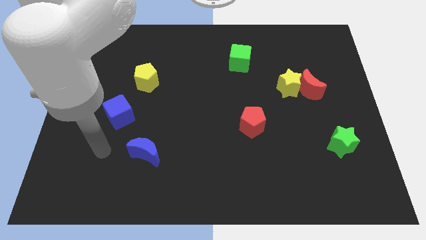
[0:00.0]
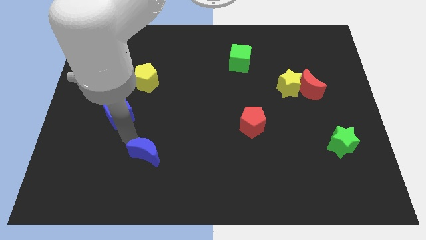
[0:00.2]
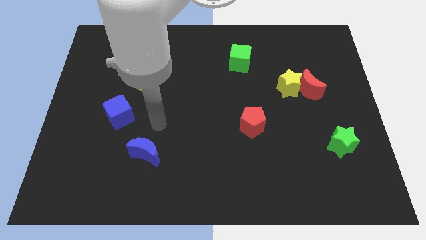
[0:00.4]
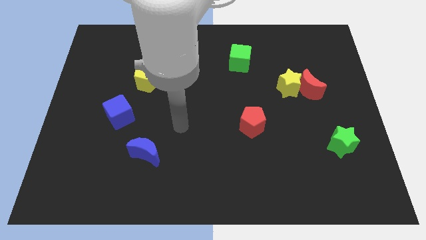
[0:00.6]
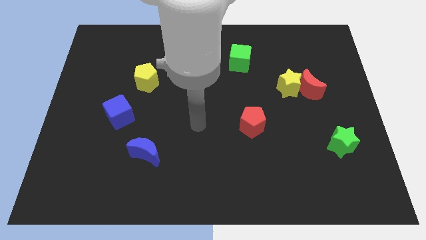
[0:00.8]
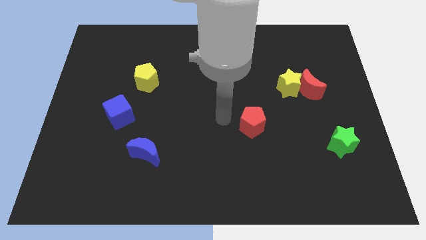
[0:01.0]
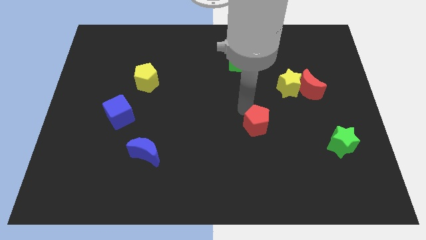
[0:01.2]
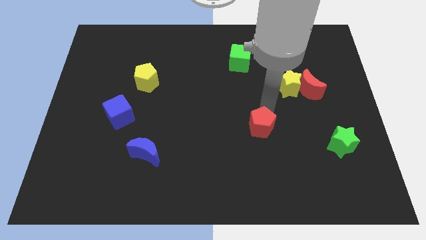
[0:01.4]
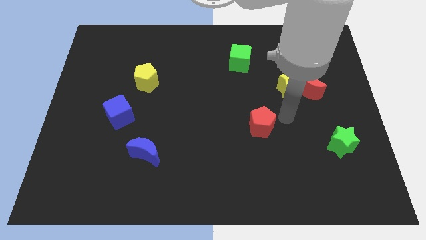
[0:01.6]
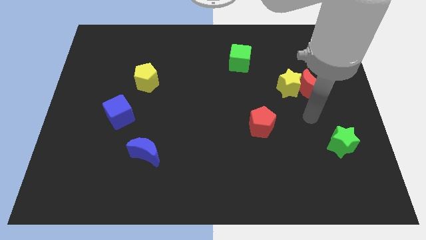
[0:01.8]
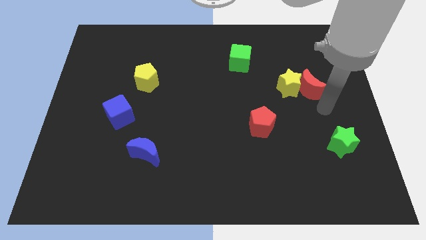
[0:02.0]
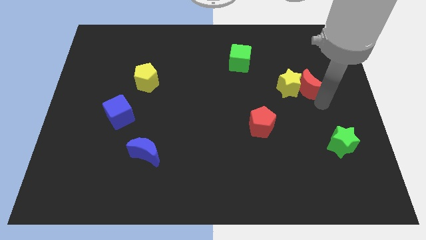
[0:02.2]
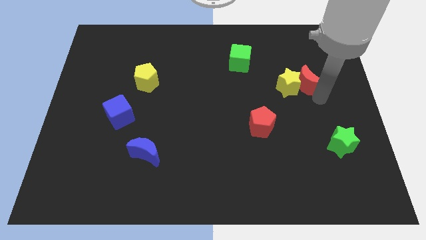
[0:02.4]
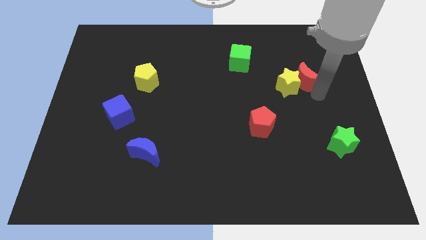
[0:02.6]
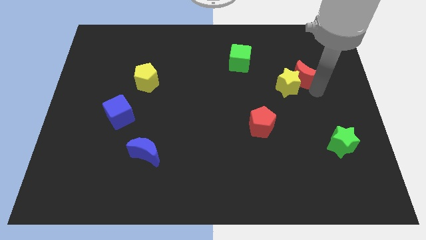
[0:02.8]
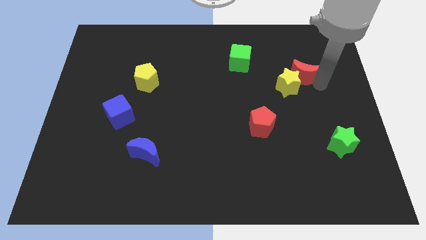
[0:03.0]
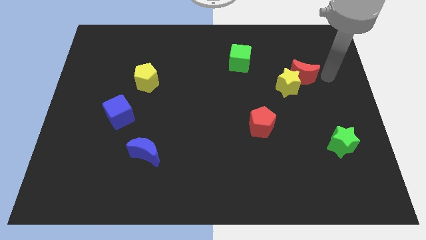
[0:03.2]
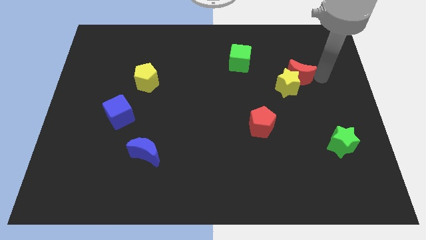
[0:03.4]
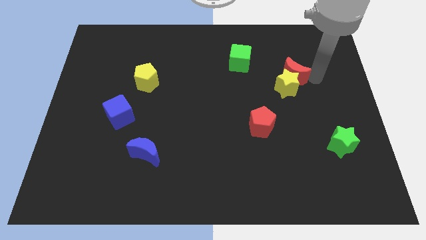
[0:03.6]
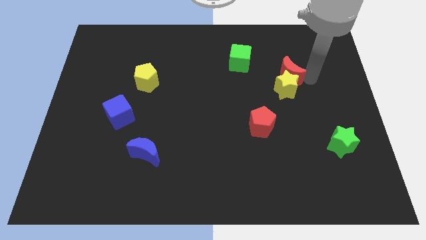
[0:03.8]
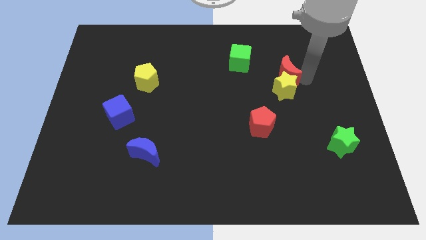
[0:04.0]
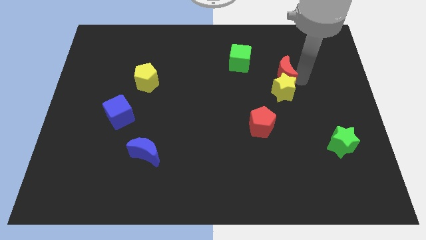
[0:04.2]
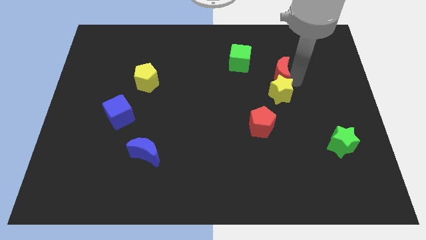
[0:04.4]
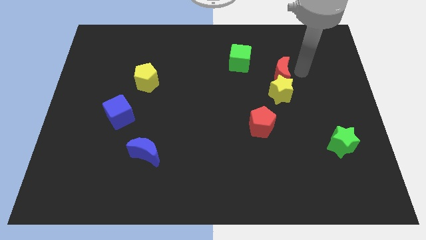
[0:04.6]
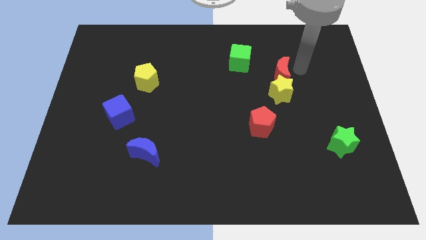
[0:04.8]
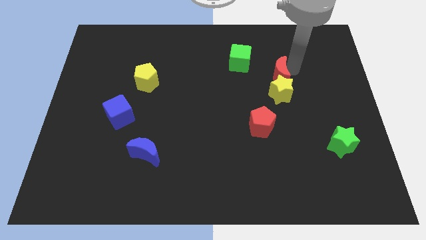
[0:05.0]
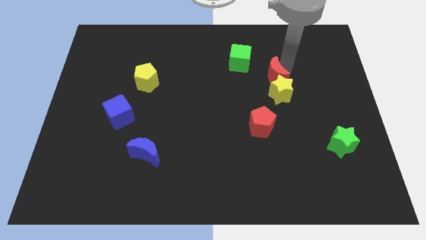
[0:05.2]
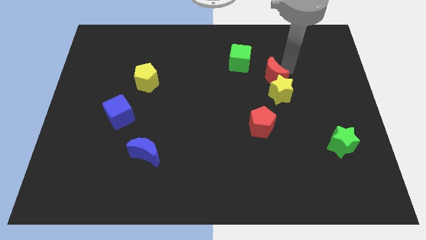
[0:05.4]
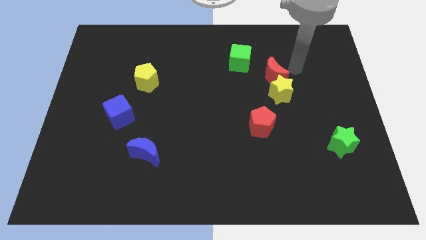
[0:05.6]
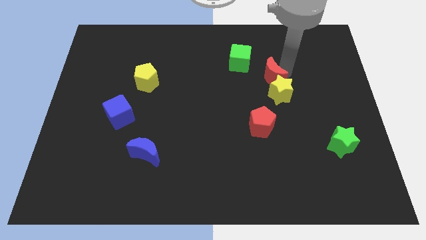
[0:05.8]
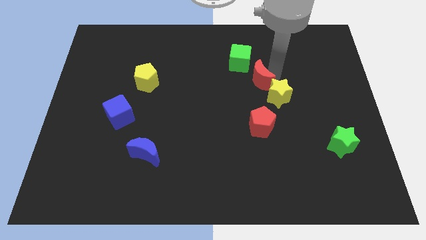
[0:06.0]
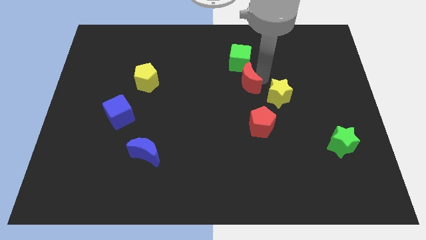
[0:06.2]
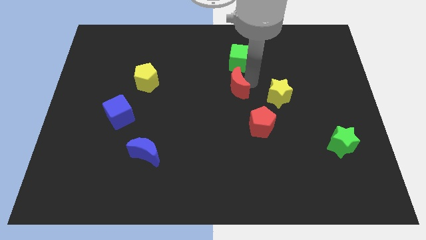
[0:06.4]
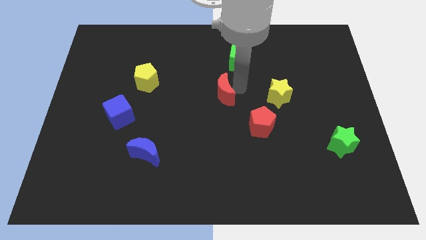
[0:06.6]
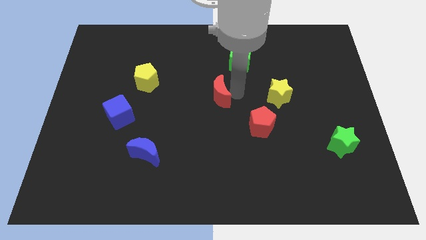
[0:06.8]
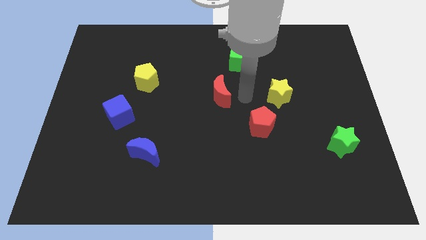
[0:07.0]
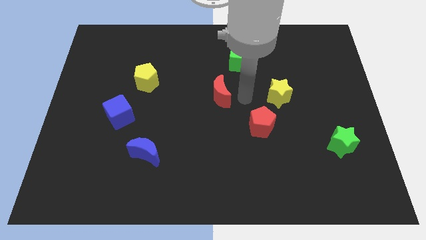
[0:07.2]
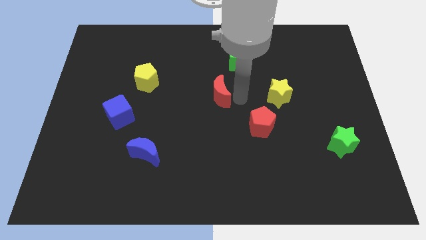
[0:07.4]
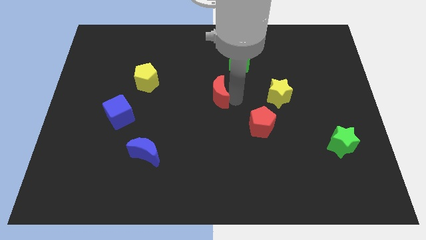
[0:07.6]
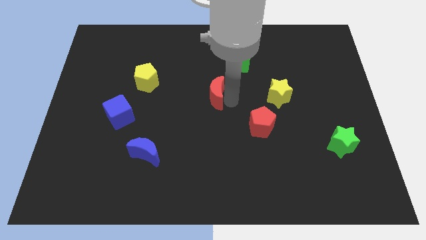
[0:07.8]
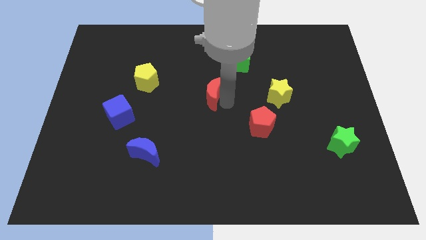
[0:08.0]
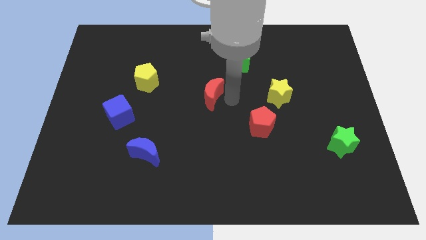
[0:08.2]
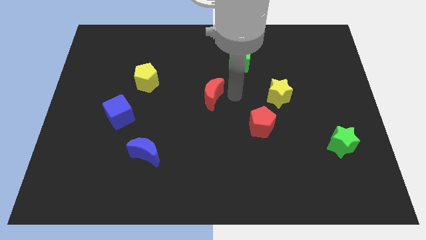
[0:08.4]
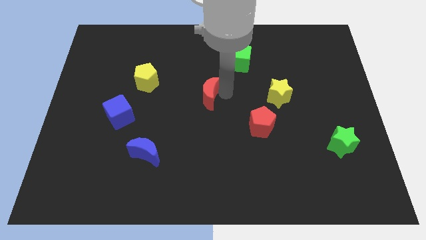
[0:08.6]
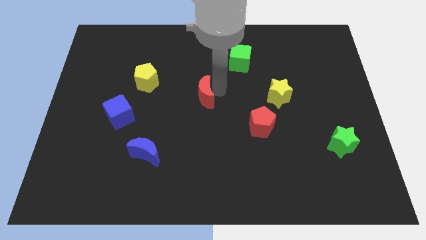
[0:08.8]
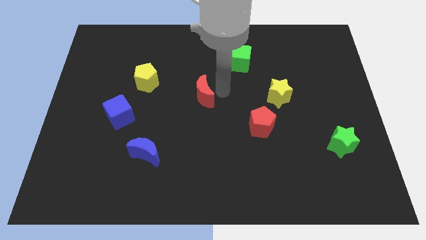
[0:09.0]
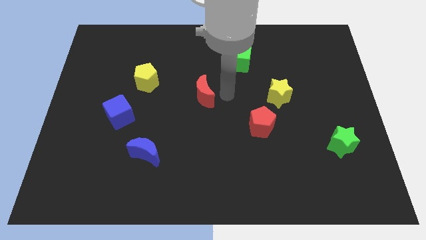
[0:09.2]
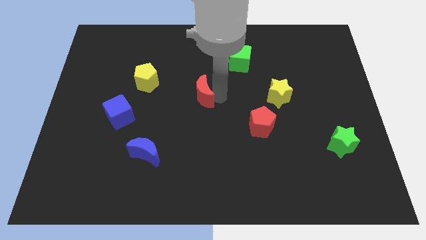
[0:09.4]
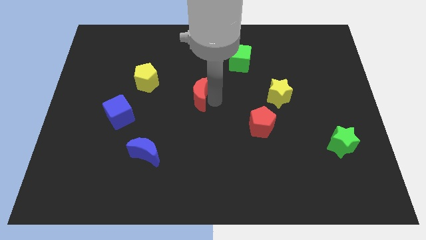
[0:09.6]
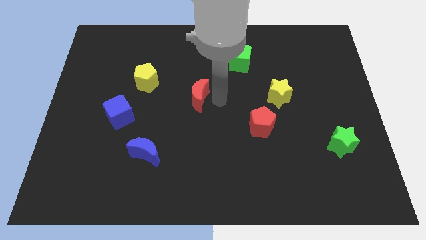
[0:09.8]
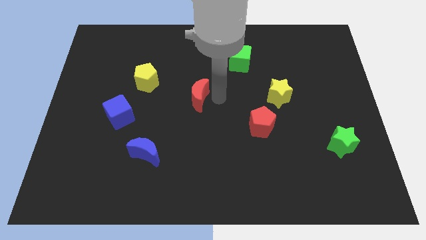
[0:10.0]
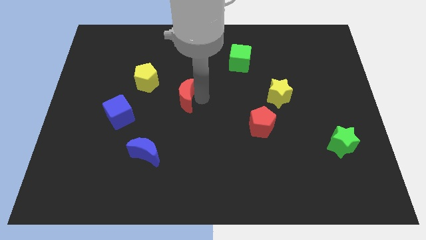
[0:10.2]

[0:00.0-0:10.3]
push the red moon diagonally down and to the right of the yellow pentagon

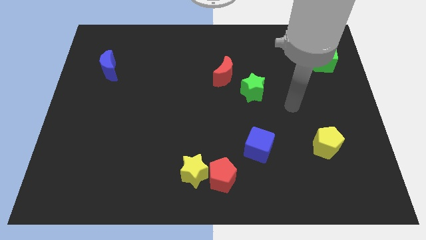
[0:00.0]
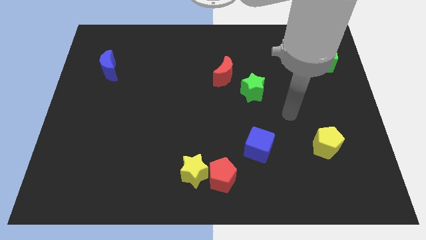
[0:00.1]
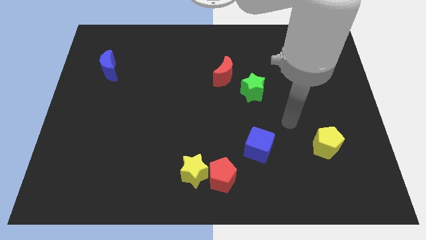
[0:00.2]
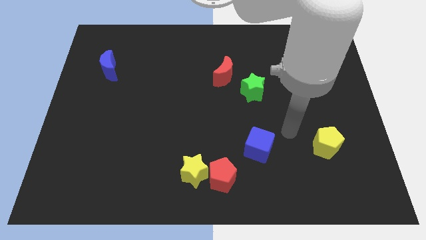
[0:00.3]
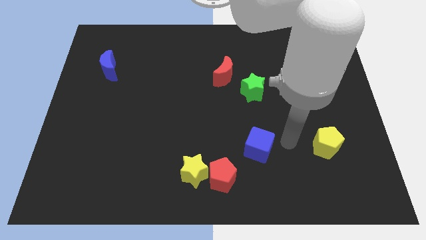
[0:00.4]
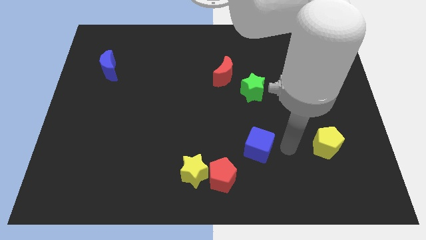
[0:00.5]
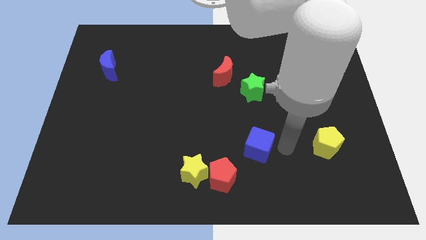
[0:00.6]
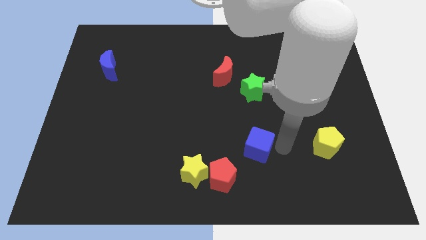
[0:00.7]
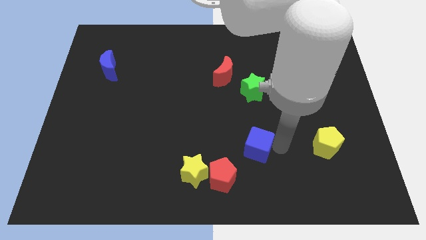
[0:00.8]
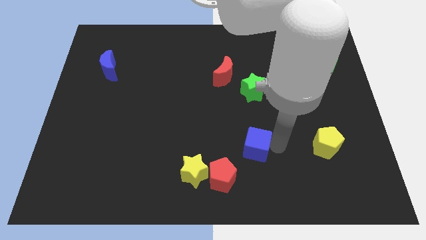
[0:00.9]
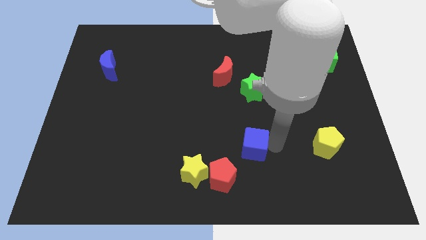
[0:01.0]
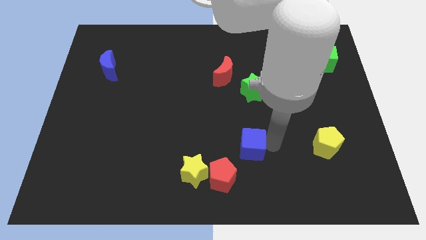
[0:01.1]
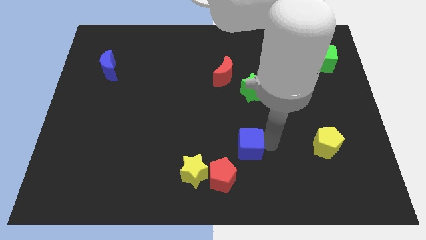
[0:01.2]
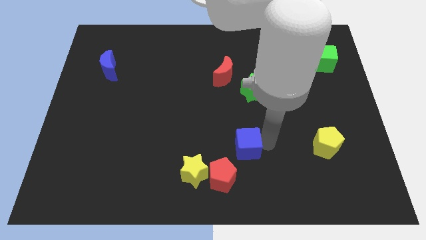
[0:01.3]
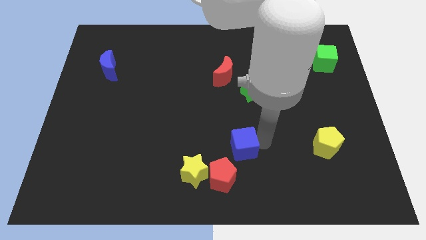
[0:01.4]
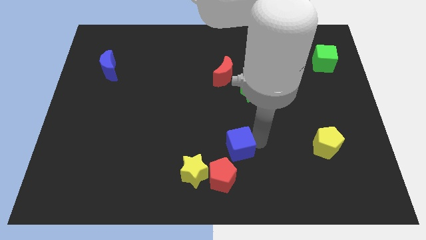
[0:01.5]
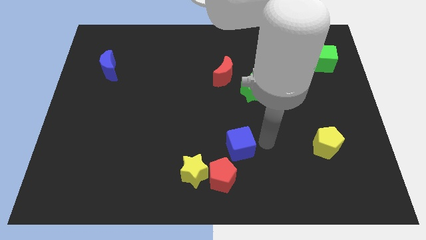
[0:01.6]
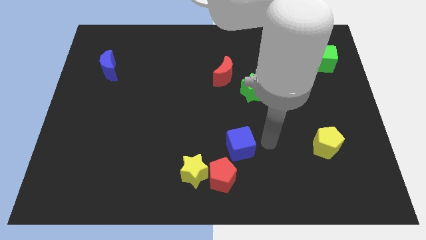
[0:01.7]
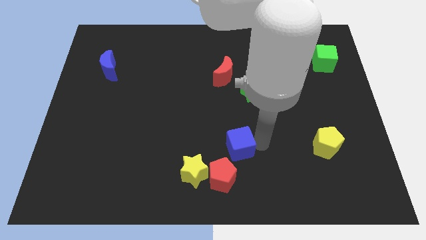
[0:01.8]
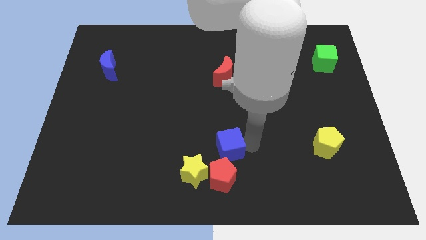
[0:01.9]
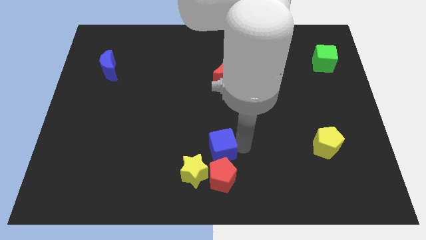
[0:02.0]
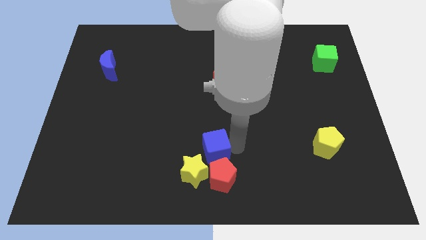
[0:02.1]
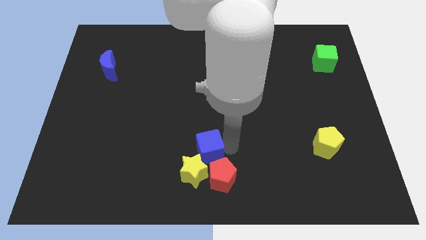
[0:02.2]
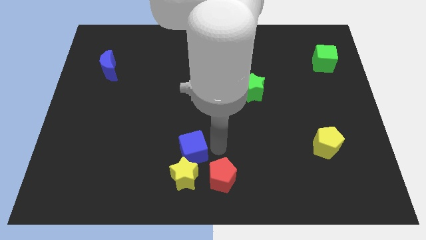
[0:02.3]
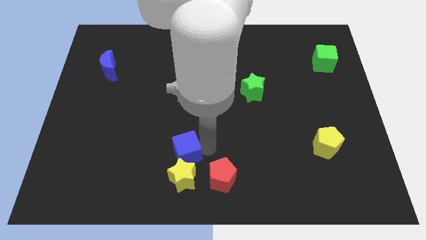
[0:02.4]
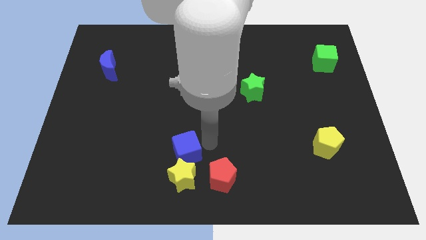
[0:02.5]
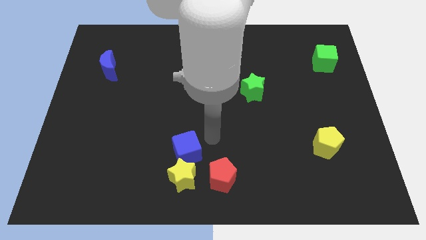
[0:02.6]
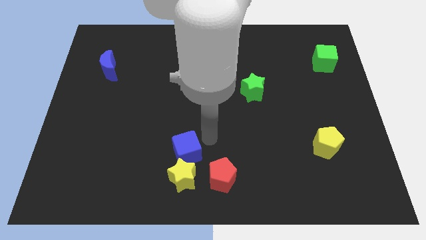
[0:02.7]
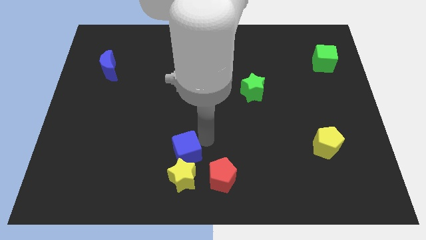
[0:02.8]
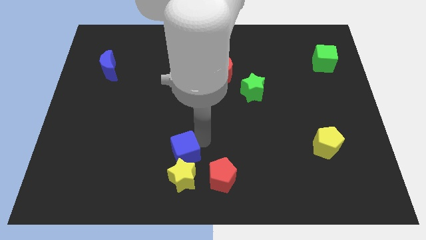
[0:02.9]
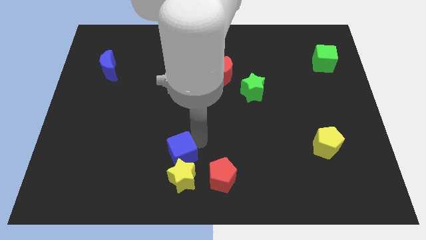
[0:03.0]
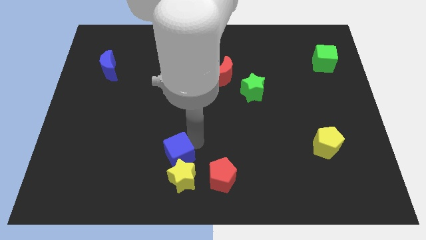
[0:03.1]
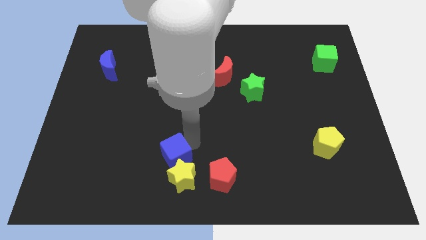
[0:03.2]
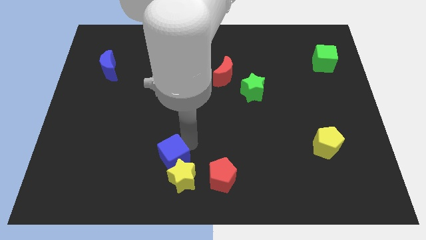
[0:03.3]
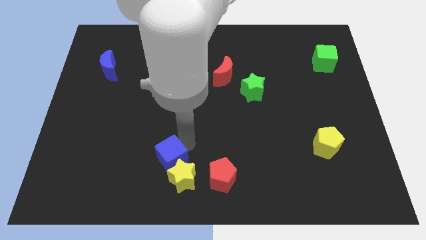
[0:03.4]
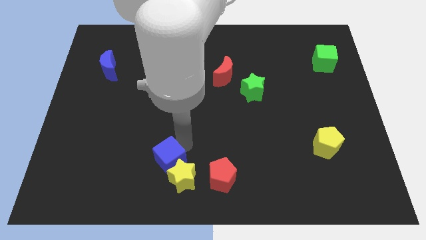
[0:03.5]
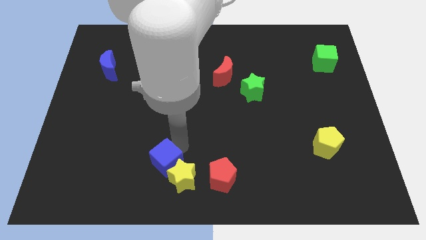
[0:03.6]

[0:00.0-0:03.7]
move the blue cube to the left side of the yellow star
